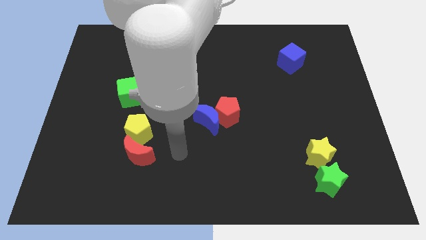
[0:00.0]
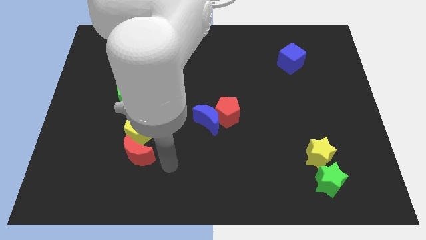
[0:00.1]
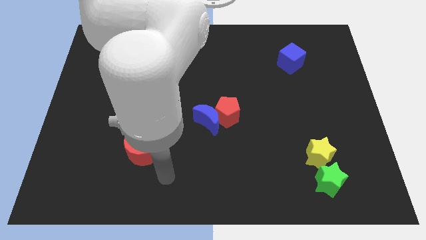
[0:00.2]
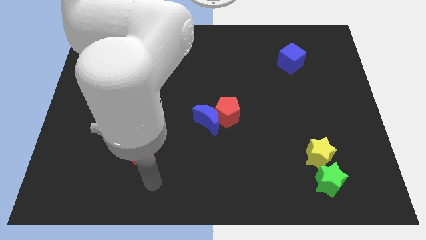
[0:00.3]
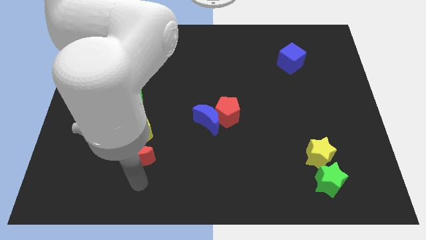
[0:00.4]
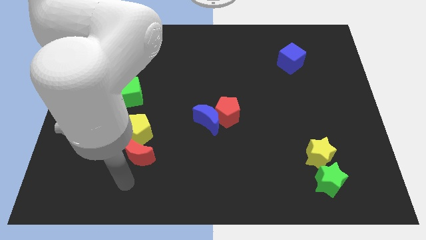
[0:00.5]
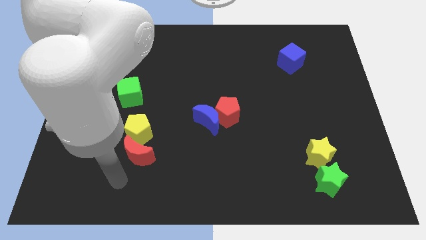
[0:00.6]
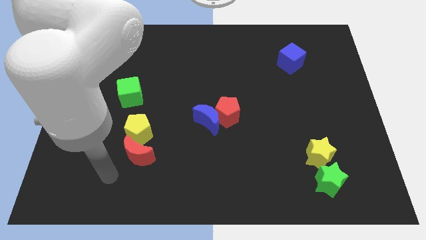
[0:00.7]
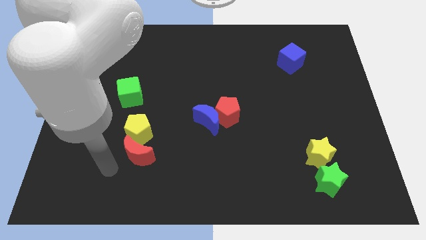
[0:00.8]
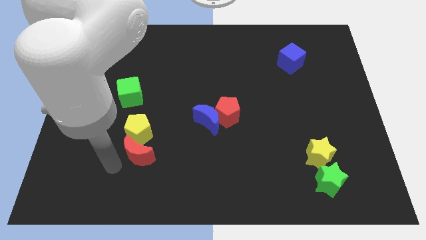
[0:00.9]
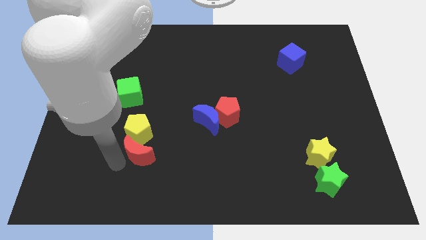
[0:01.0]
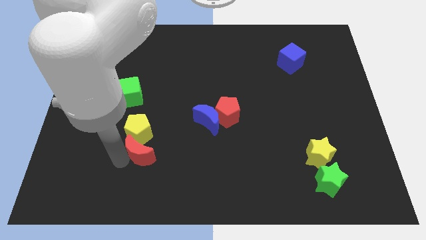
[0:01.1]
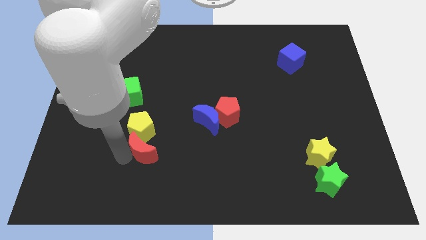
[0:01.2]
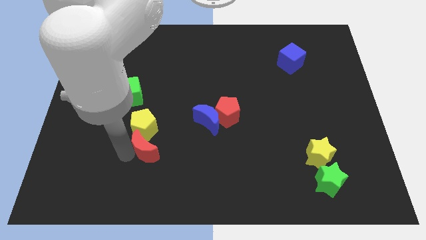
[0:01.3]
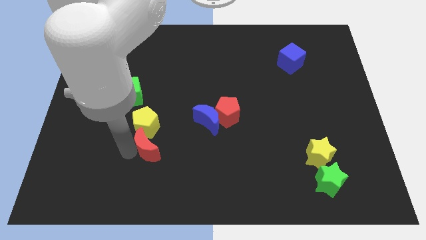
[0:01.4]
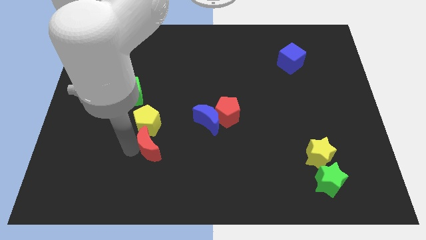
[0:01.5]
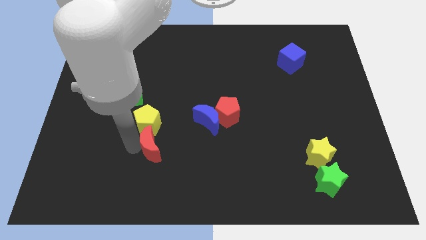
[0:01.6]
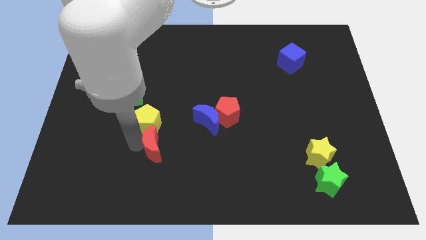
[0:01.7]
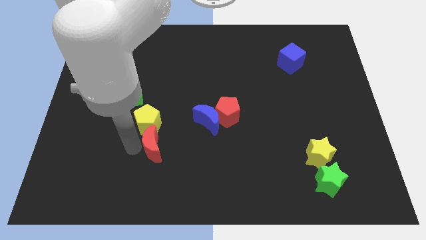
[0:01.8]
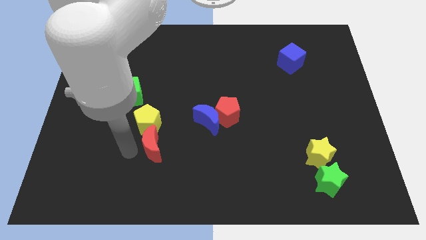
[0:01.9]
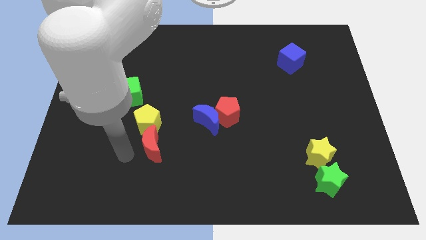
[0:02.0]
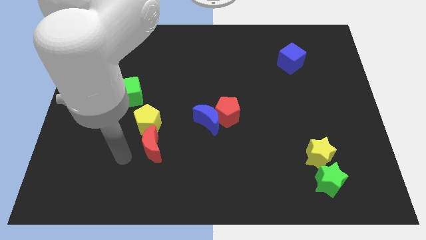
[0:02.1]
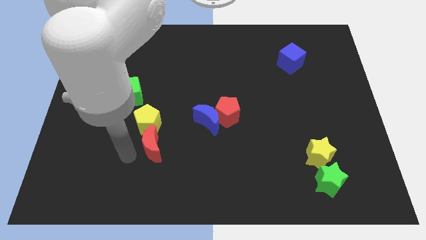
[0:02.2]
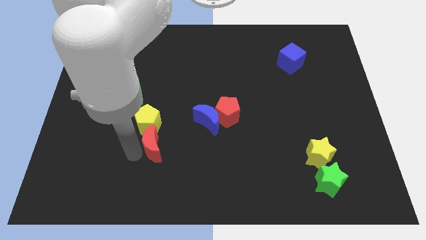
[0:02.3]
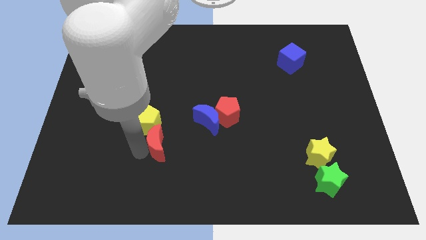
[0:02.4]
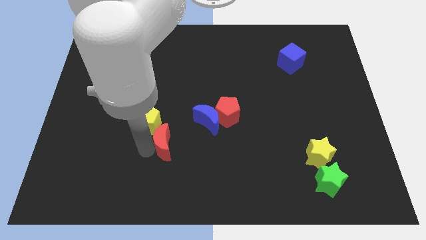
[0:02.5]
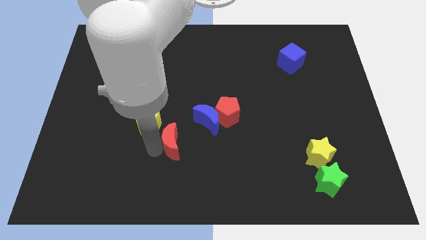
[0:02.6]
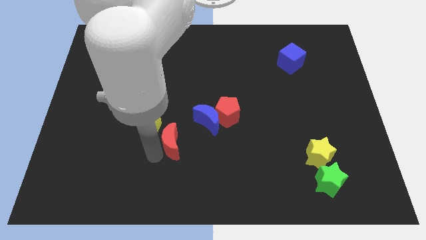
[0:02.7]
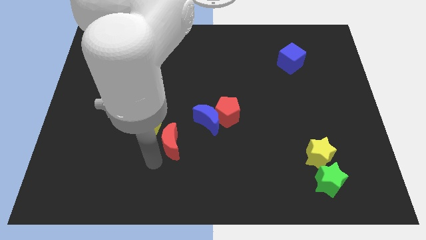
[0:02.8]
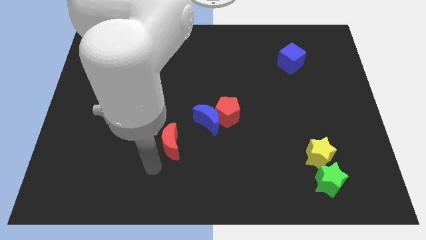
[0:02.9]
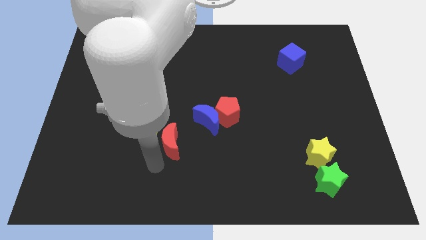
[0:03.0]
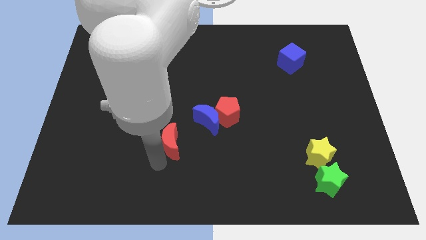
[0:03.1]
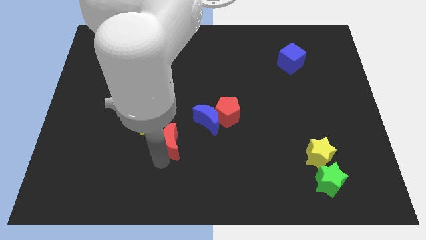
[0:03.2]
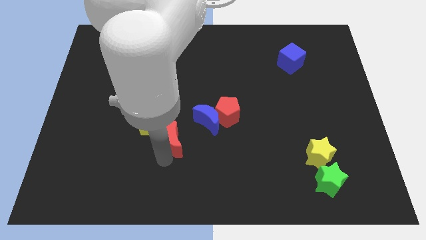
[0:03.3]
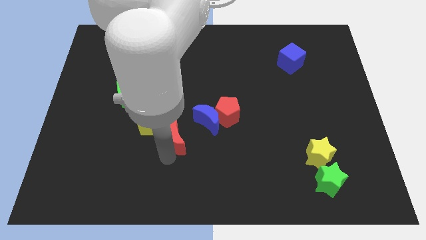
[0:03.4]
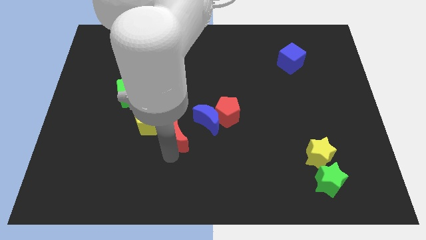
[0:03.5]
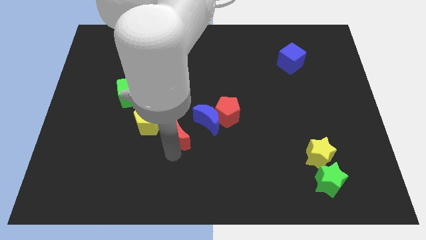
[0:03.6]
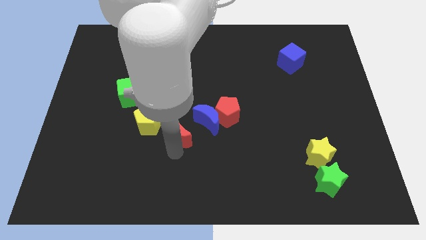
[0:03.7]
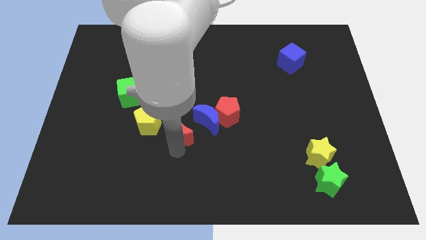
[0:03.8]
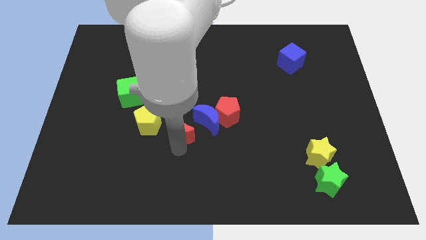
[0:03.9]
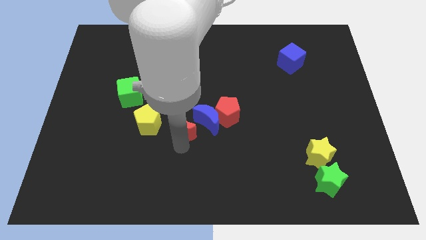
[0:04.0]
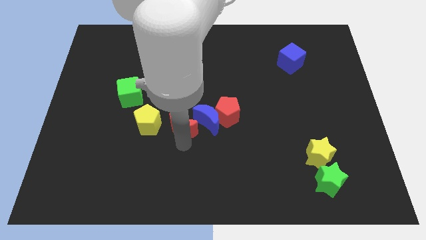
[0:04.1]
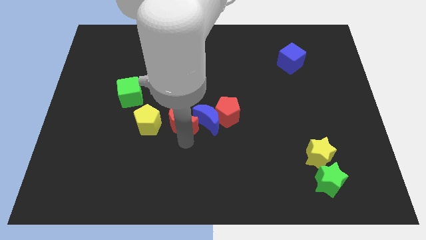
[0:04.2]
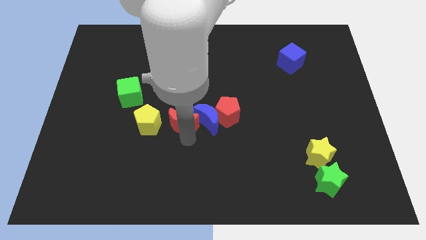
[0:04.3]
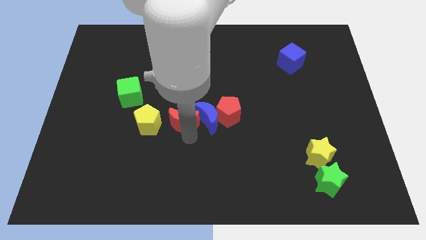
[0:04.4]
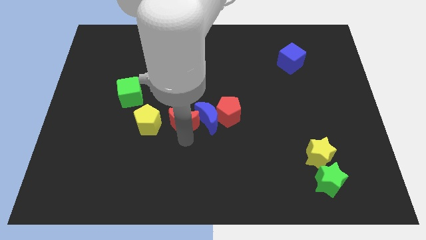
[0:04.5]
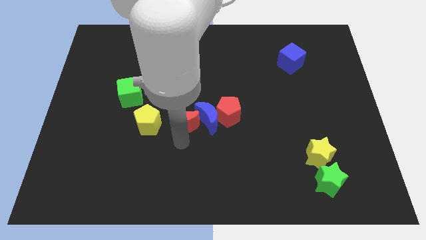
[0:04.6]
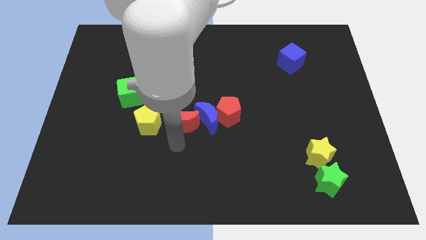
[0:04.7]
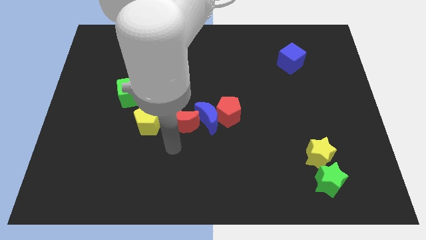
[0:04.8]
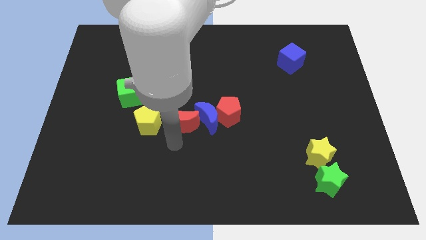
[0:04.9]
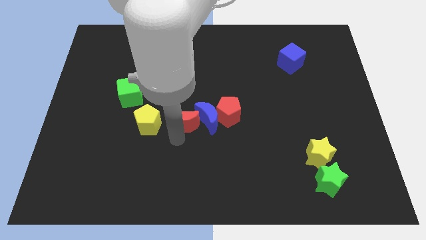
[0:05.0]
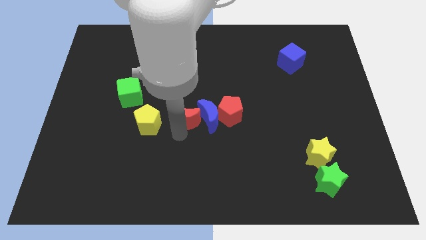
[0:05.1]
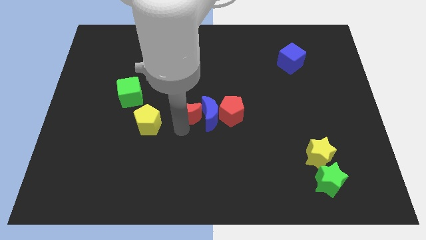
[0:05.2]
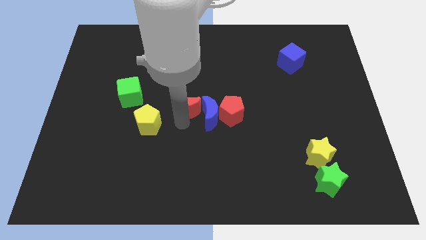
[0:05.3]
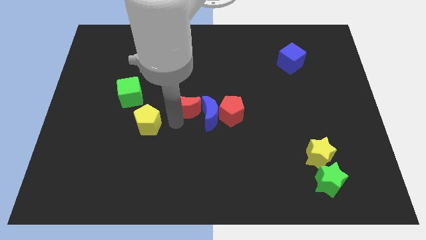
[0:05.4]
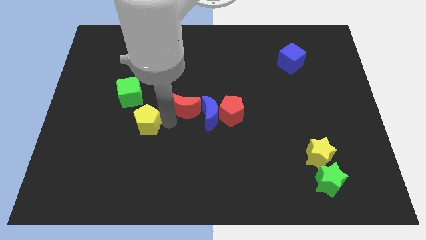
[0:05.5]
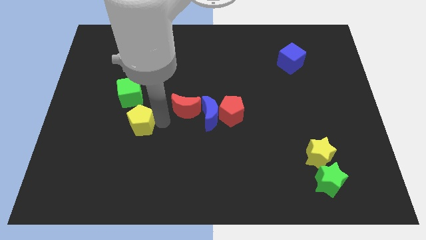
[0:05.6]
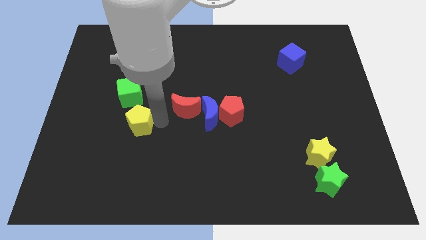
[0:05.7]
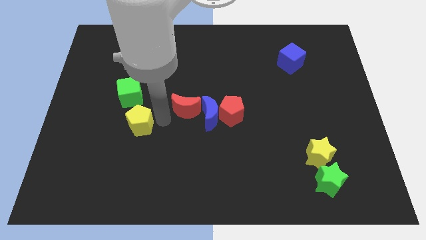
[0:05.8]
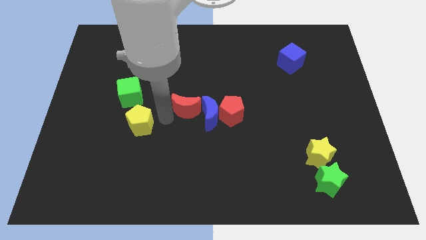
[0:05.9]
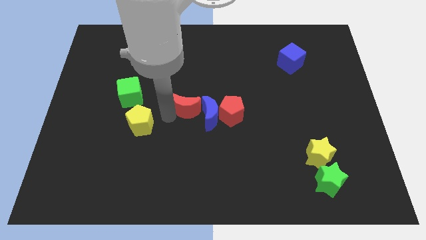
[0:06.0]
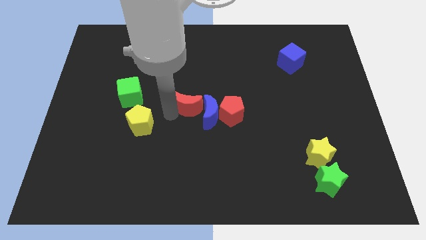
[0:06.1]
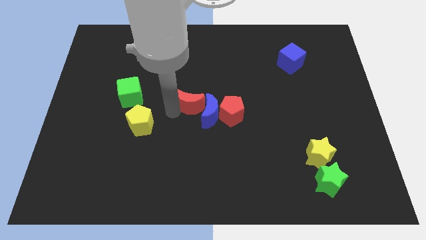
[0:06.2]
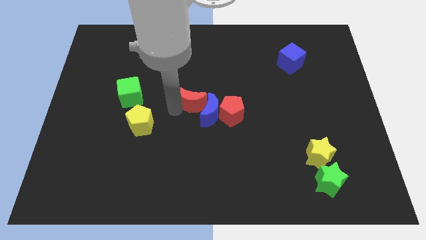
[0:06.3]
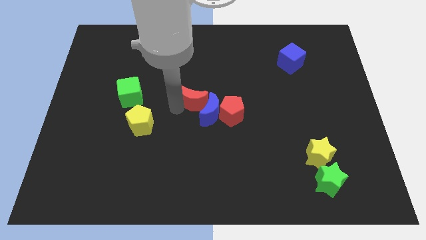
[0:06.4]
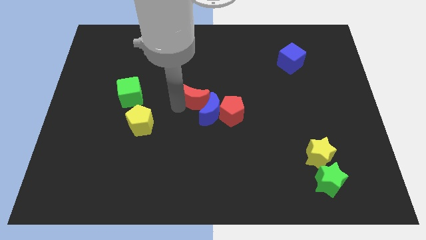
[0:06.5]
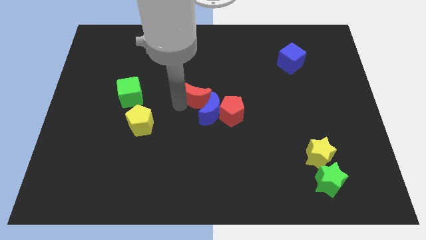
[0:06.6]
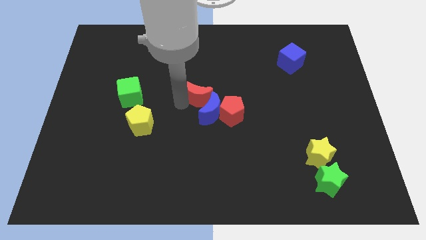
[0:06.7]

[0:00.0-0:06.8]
slide the red moon upwards and right diagonally

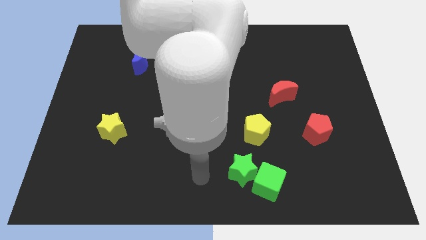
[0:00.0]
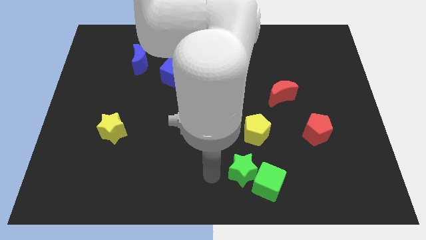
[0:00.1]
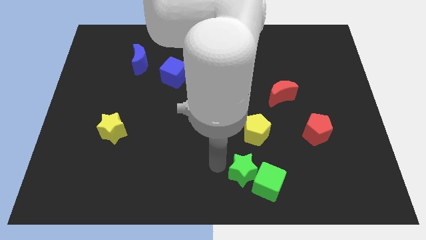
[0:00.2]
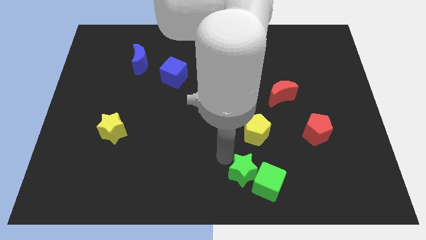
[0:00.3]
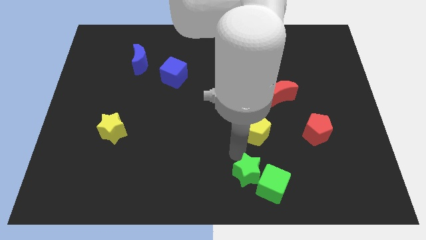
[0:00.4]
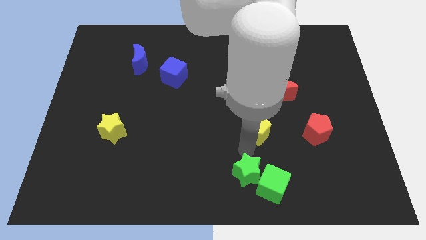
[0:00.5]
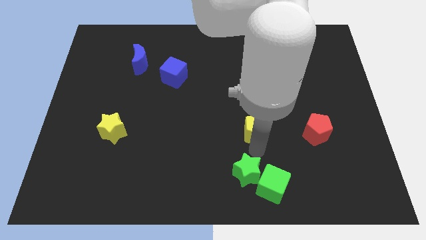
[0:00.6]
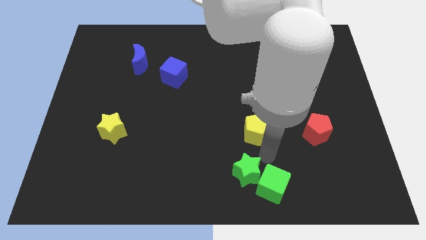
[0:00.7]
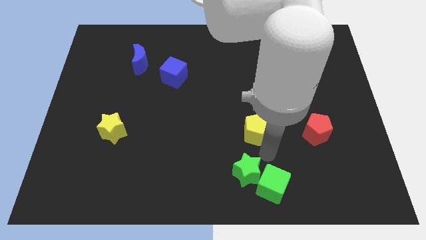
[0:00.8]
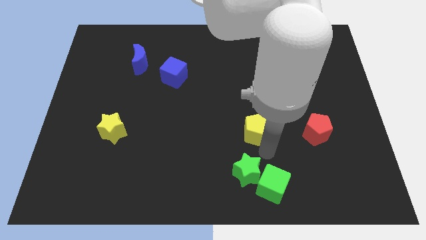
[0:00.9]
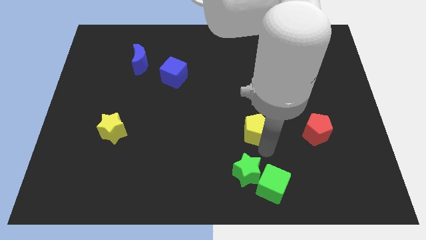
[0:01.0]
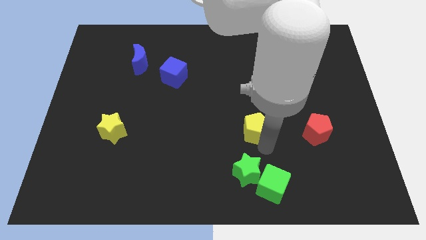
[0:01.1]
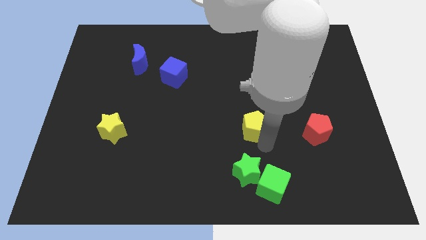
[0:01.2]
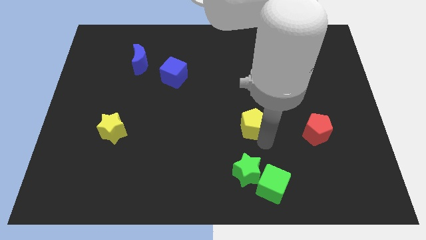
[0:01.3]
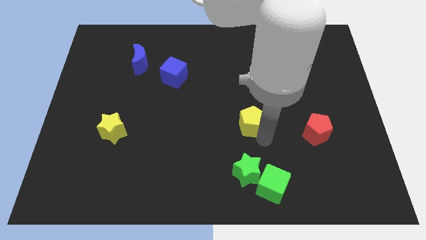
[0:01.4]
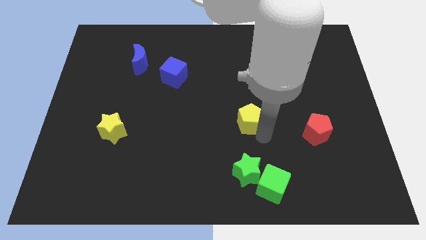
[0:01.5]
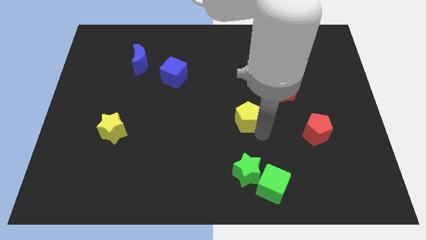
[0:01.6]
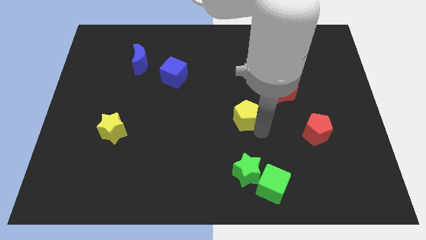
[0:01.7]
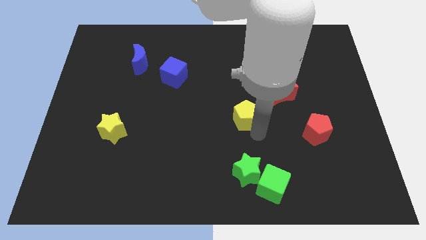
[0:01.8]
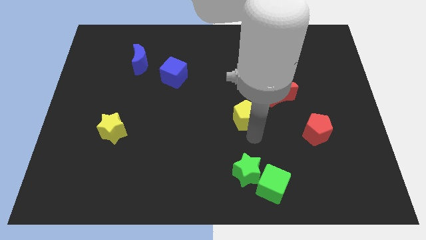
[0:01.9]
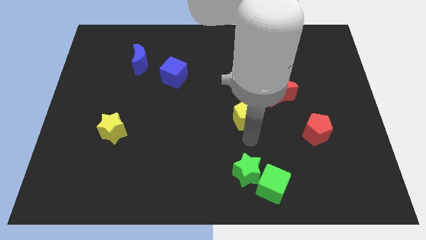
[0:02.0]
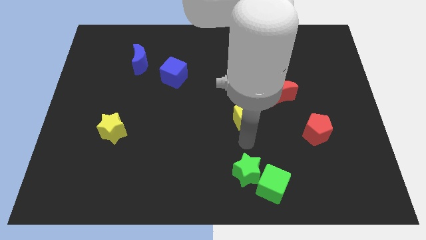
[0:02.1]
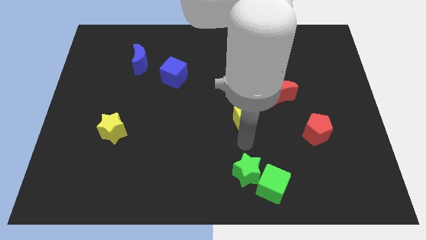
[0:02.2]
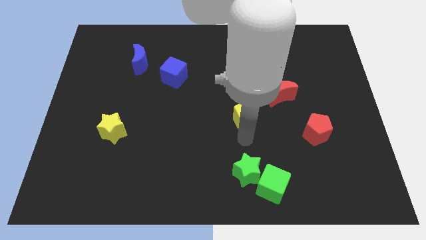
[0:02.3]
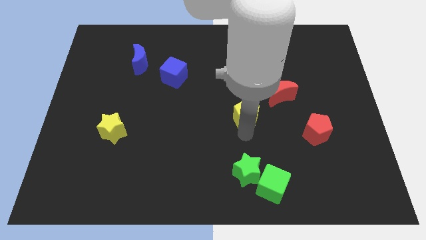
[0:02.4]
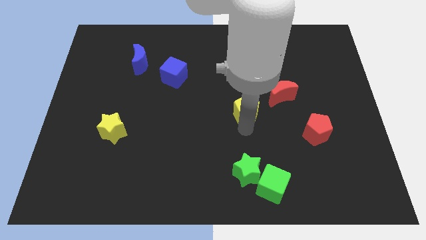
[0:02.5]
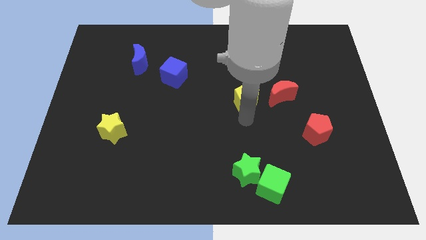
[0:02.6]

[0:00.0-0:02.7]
slightly push the yellow pentagon upwards
